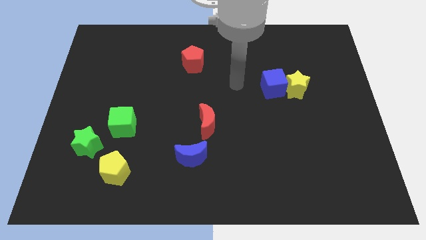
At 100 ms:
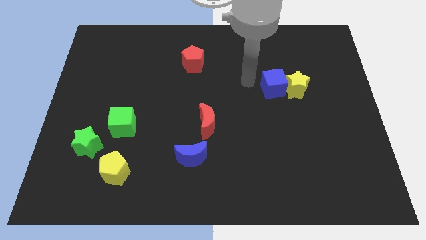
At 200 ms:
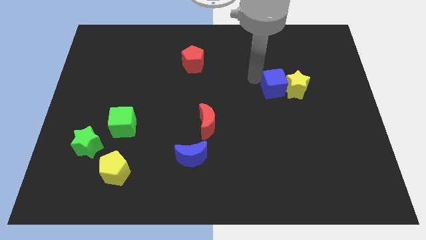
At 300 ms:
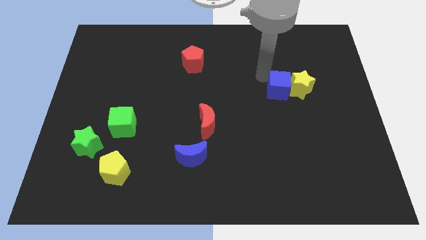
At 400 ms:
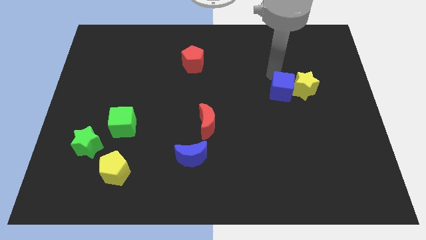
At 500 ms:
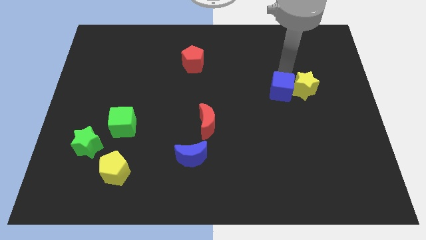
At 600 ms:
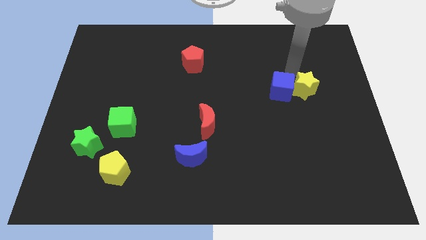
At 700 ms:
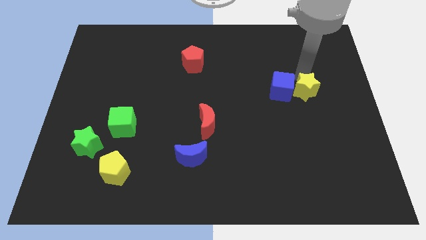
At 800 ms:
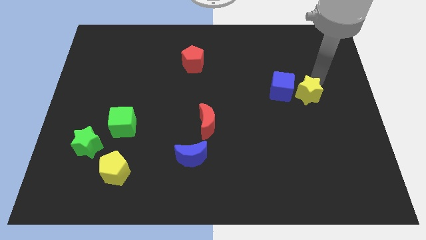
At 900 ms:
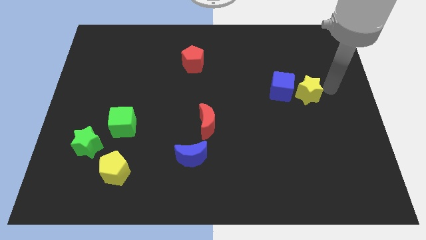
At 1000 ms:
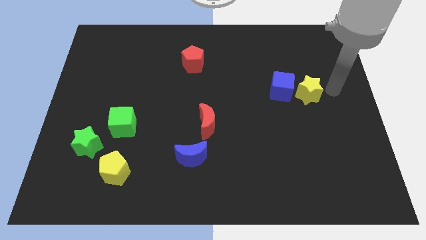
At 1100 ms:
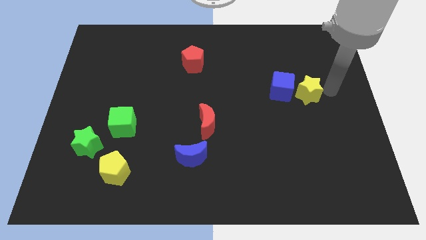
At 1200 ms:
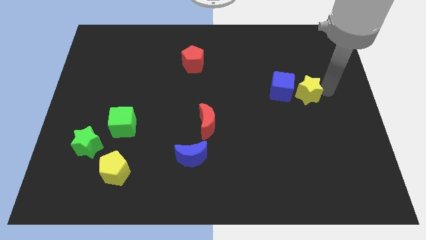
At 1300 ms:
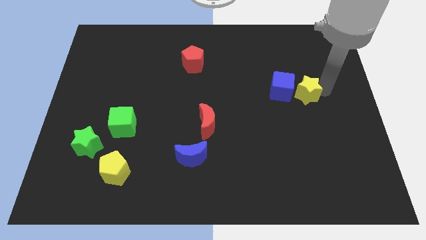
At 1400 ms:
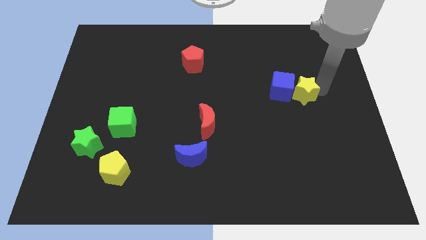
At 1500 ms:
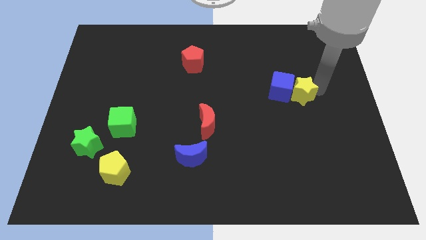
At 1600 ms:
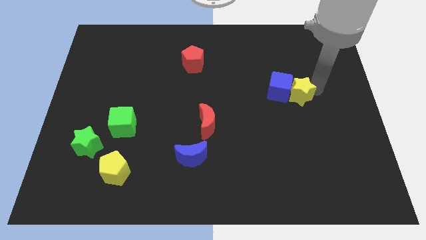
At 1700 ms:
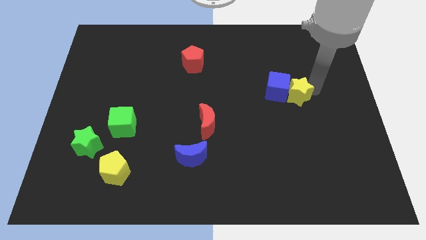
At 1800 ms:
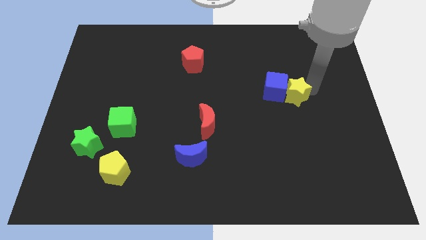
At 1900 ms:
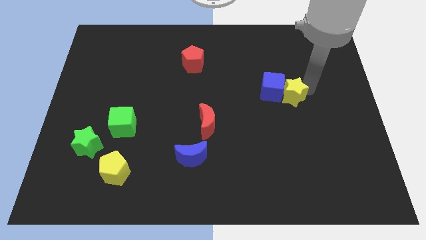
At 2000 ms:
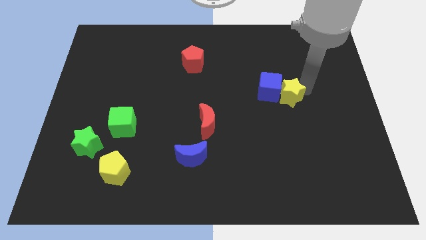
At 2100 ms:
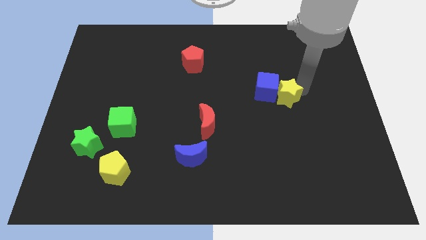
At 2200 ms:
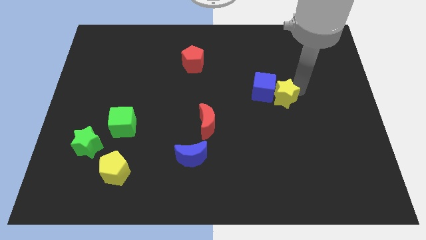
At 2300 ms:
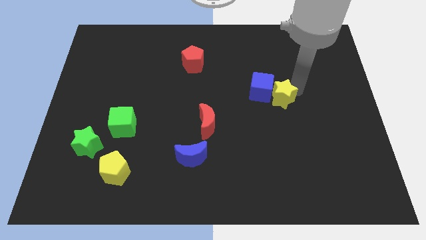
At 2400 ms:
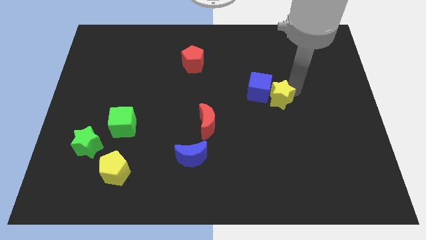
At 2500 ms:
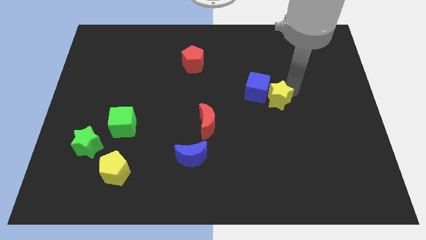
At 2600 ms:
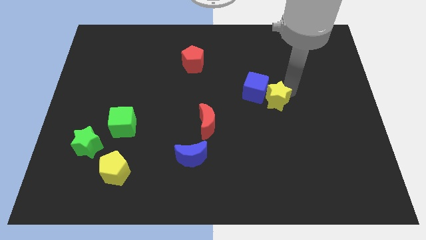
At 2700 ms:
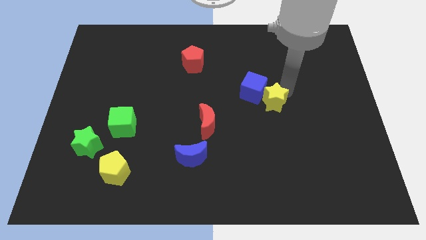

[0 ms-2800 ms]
slide the yellow star a bit downwards and then to the left

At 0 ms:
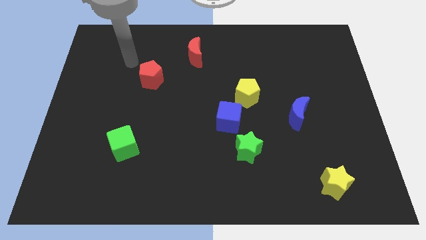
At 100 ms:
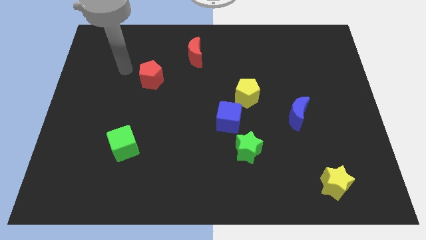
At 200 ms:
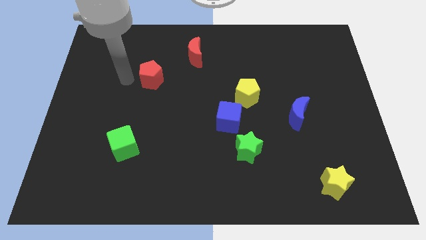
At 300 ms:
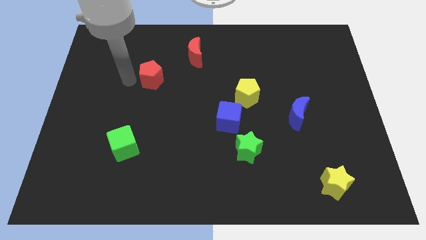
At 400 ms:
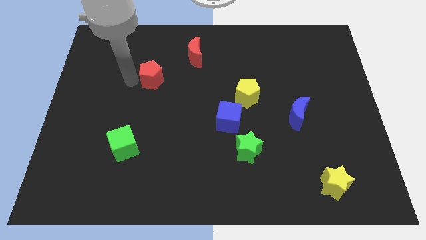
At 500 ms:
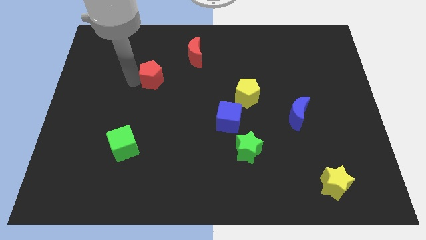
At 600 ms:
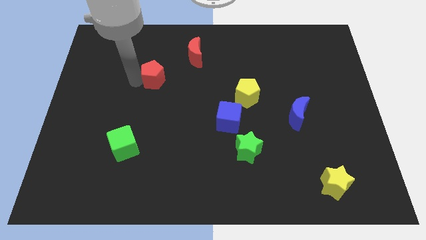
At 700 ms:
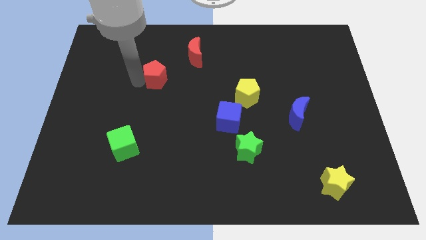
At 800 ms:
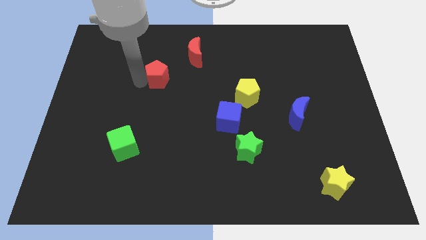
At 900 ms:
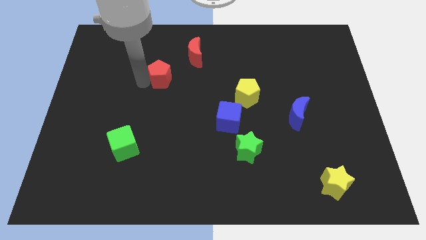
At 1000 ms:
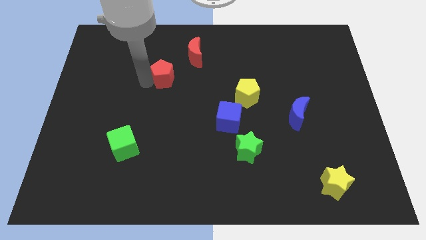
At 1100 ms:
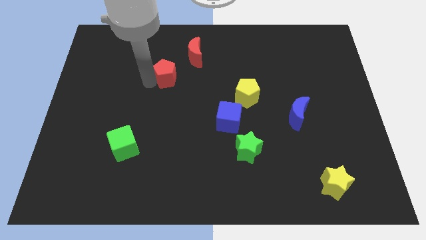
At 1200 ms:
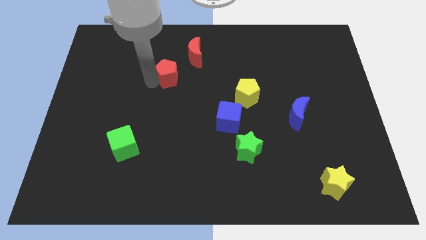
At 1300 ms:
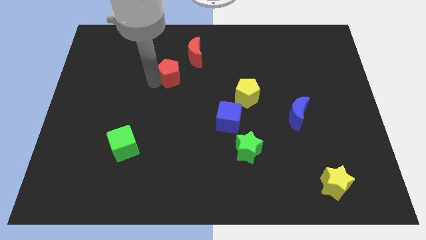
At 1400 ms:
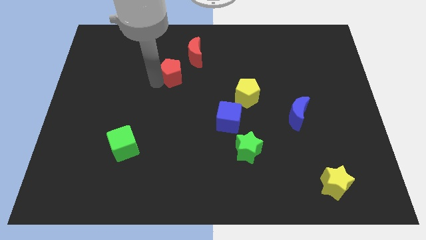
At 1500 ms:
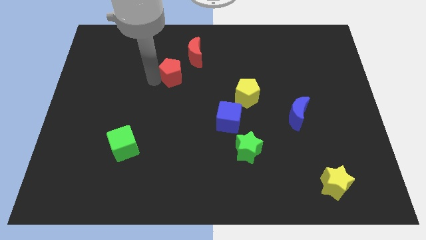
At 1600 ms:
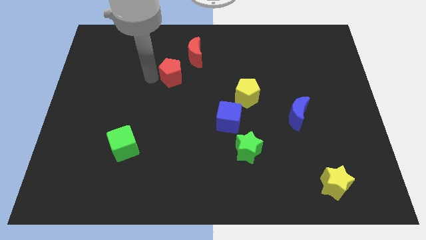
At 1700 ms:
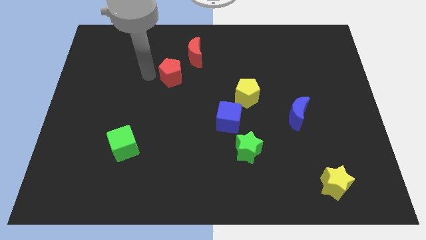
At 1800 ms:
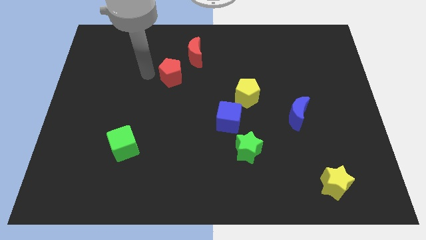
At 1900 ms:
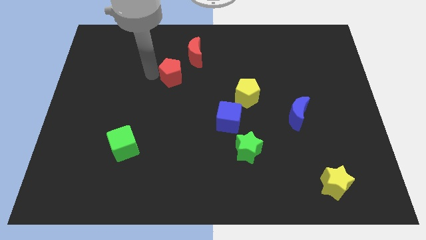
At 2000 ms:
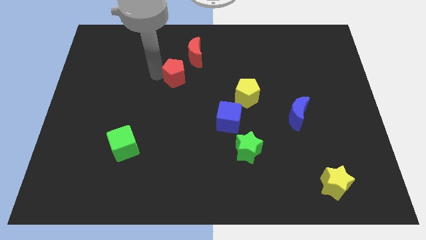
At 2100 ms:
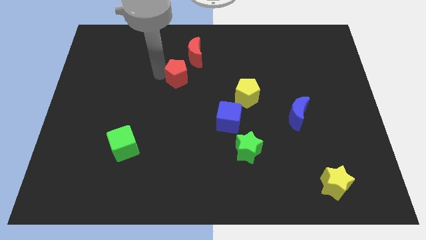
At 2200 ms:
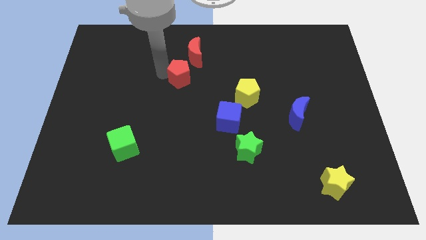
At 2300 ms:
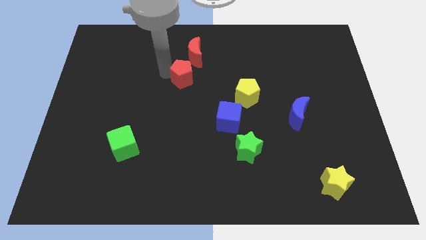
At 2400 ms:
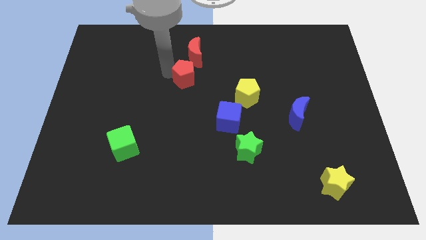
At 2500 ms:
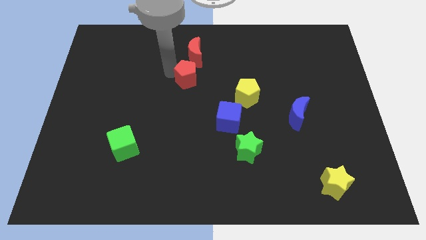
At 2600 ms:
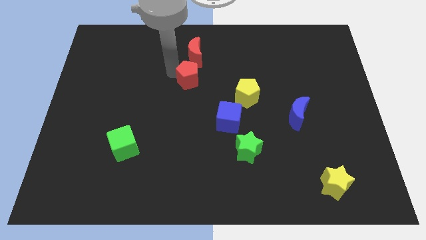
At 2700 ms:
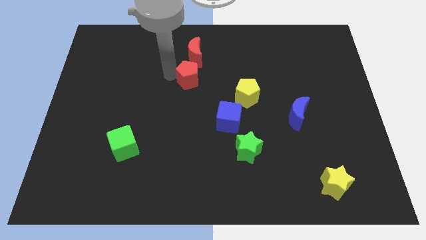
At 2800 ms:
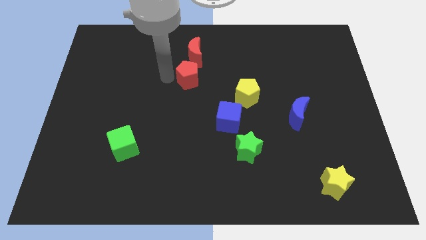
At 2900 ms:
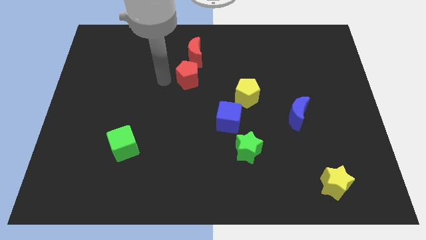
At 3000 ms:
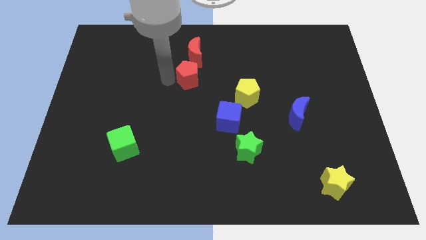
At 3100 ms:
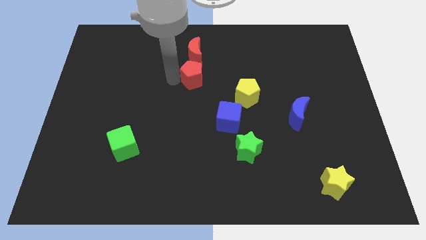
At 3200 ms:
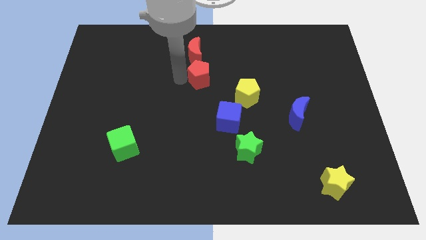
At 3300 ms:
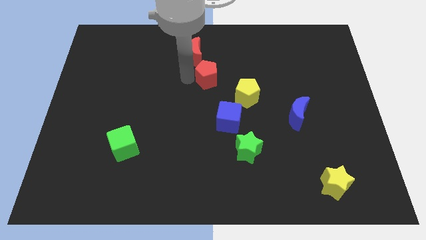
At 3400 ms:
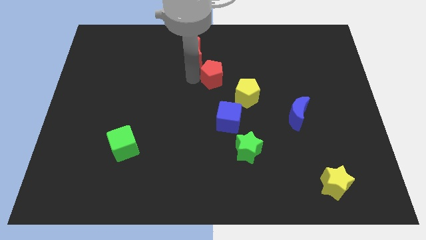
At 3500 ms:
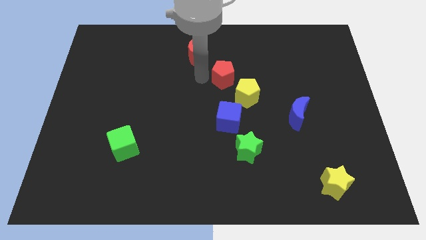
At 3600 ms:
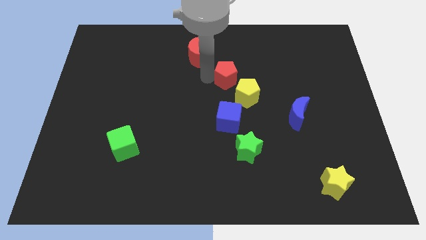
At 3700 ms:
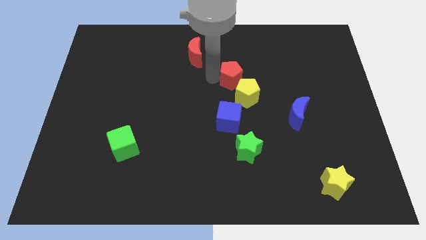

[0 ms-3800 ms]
move the red pentagon right

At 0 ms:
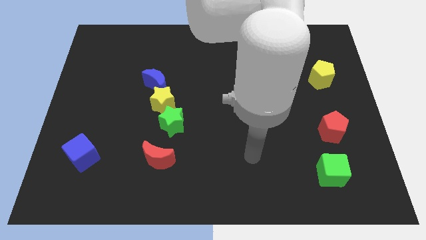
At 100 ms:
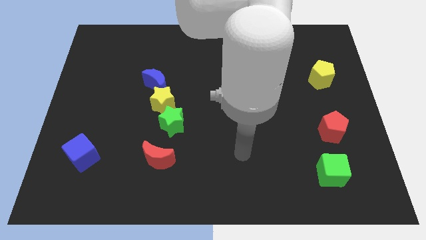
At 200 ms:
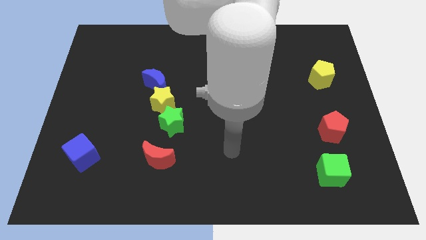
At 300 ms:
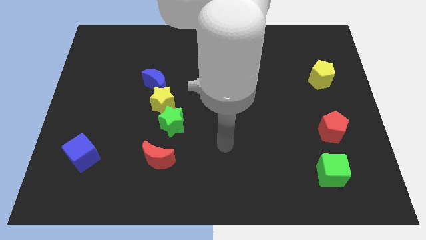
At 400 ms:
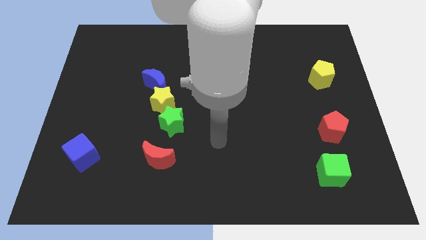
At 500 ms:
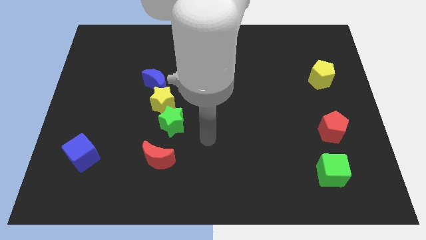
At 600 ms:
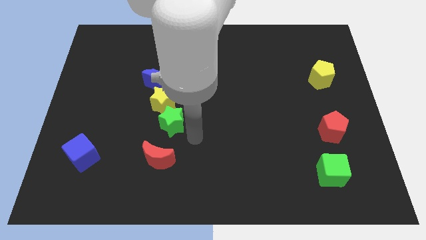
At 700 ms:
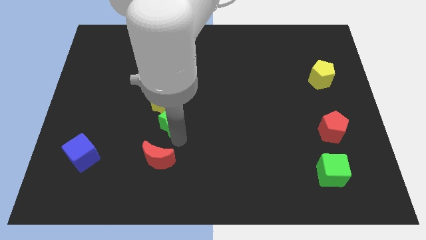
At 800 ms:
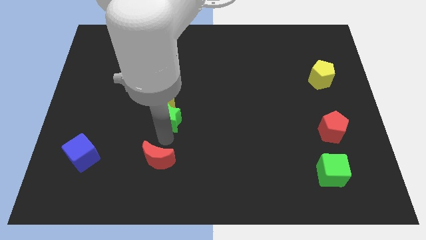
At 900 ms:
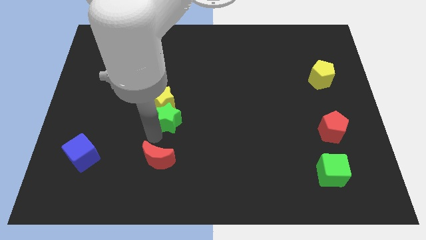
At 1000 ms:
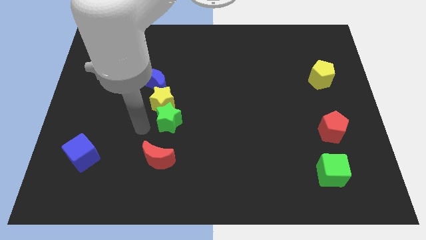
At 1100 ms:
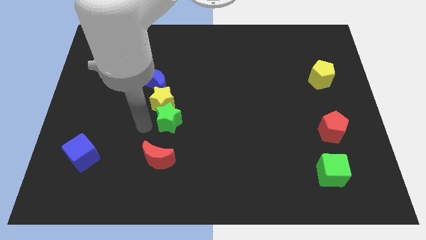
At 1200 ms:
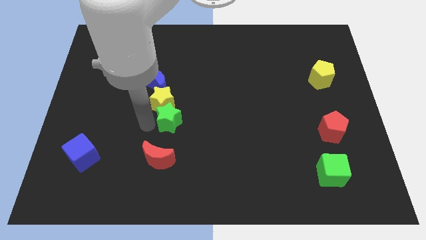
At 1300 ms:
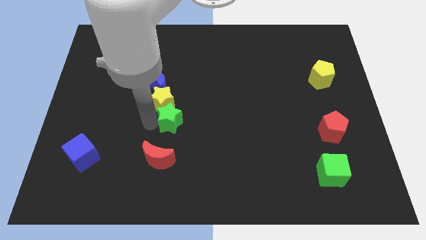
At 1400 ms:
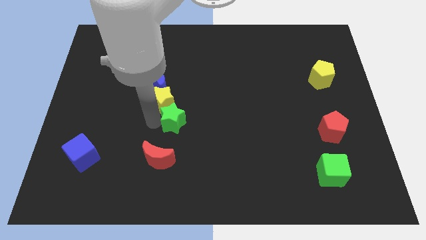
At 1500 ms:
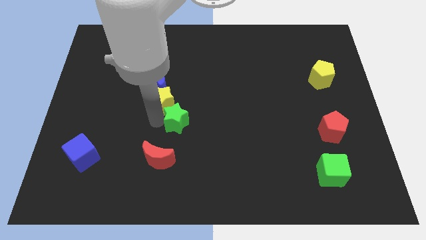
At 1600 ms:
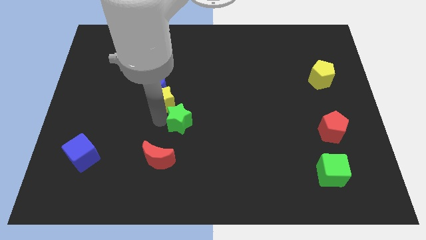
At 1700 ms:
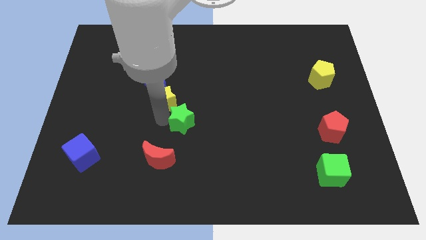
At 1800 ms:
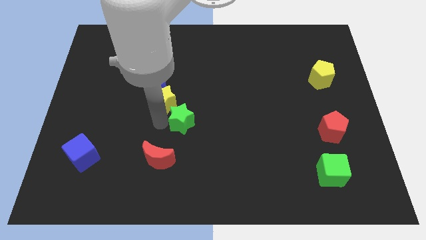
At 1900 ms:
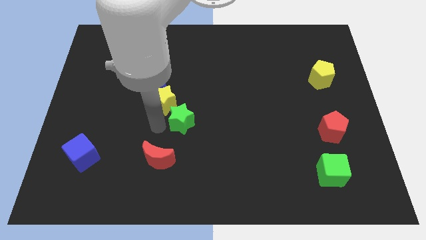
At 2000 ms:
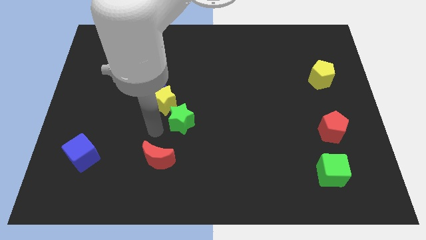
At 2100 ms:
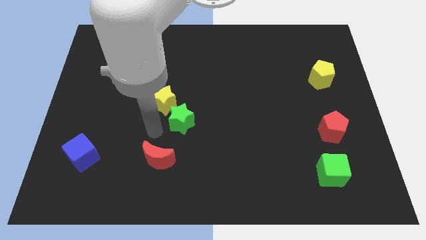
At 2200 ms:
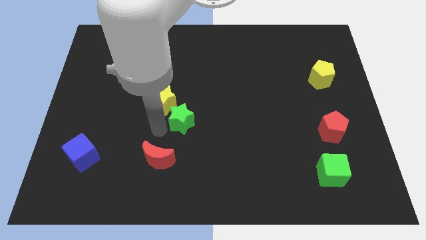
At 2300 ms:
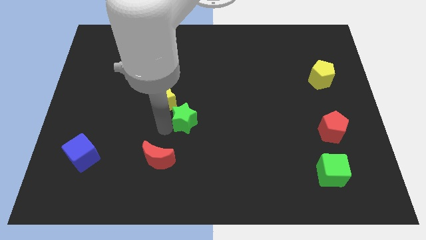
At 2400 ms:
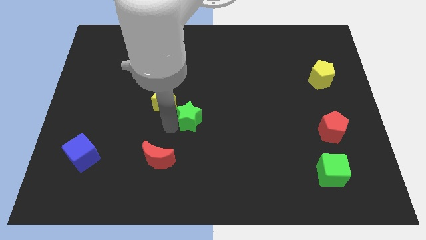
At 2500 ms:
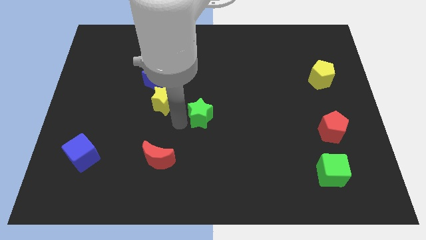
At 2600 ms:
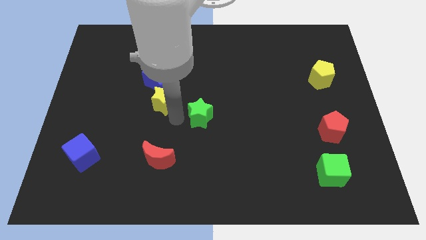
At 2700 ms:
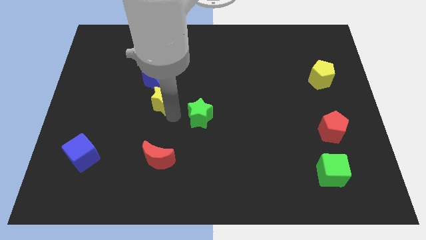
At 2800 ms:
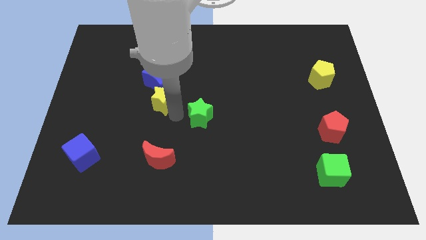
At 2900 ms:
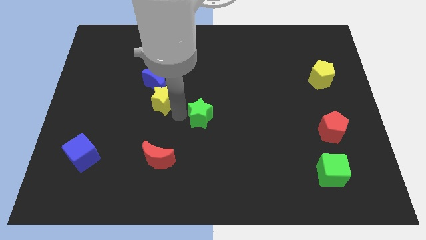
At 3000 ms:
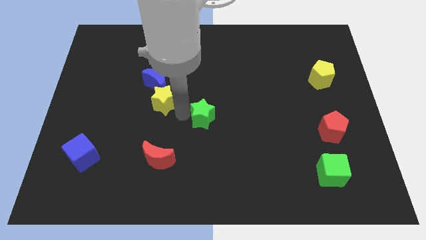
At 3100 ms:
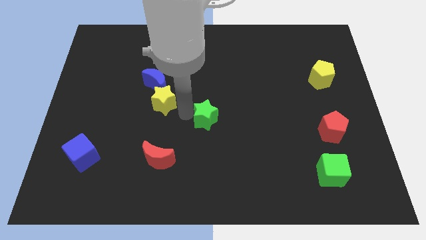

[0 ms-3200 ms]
push the green star to the right a bit
